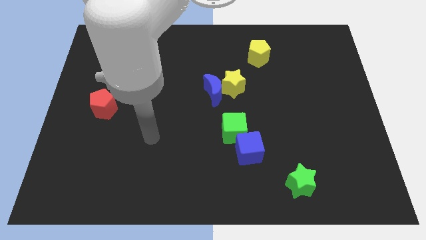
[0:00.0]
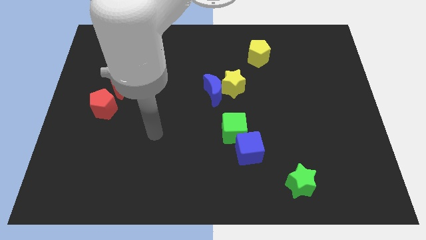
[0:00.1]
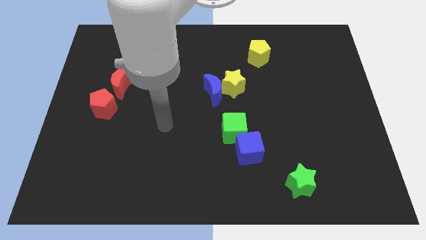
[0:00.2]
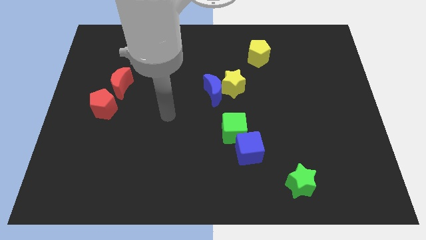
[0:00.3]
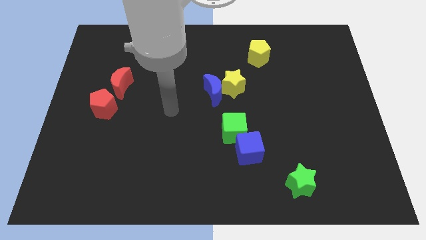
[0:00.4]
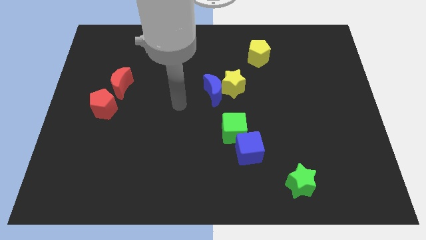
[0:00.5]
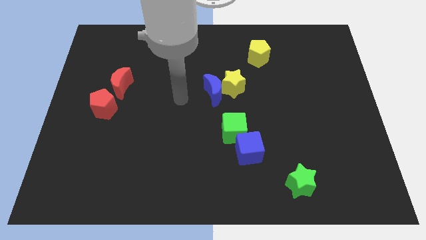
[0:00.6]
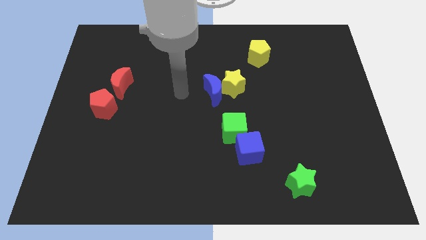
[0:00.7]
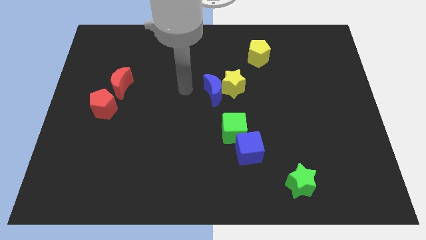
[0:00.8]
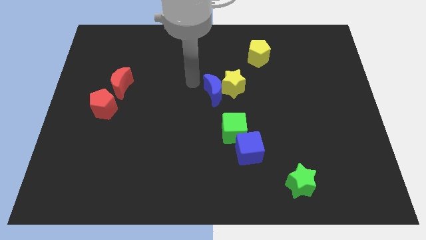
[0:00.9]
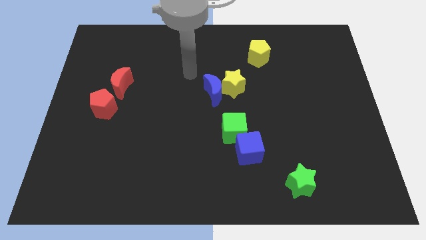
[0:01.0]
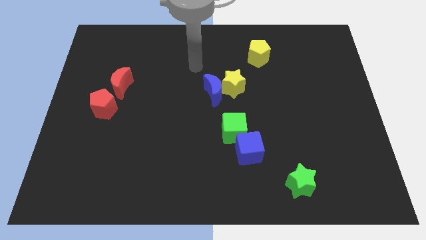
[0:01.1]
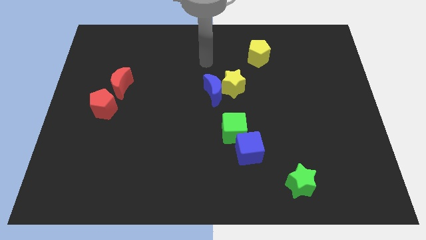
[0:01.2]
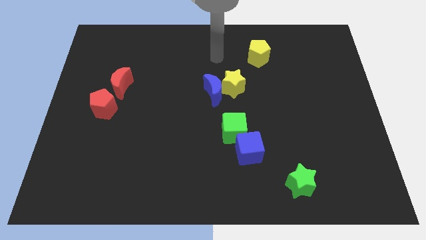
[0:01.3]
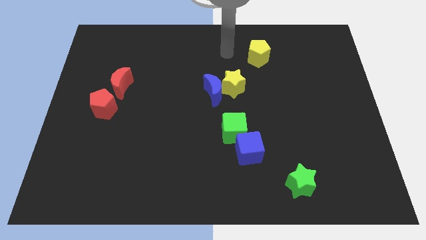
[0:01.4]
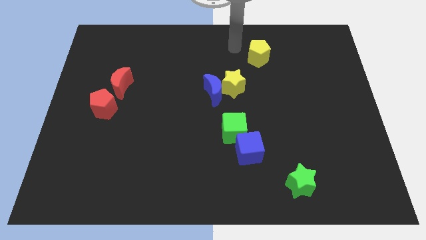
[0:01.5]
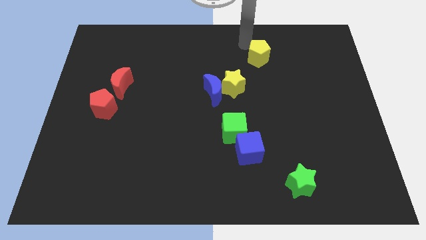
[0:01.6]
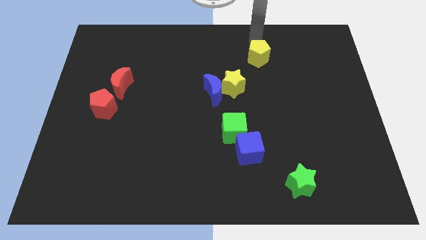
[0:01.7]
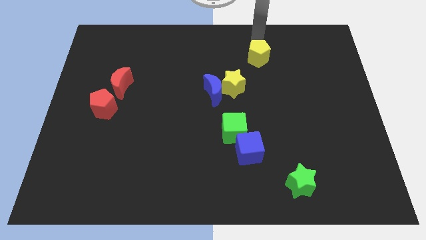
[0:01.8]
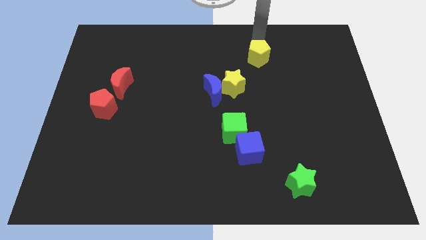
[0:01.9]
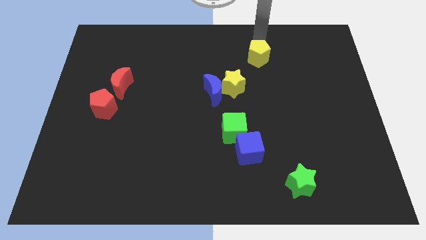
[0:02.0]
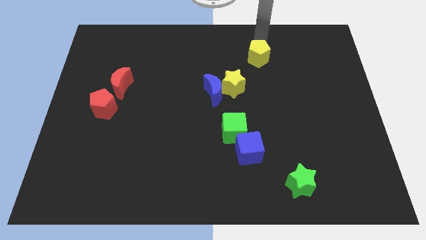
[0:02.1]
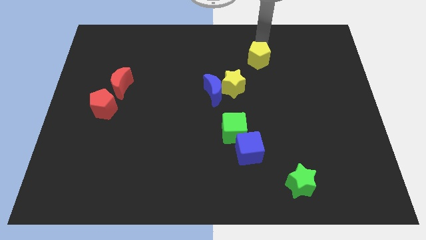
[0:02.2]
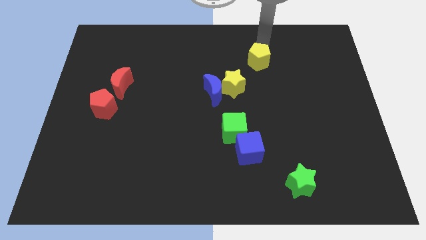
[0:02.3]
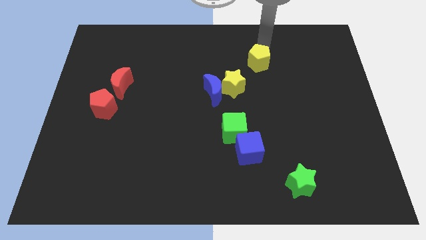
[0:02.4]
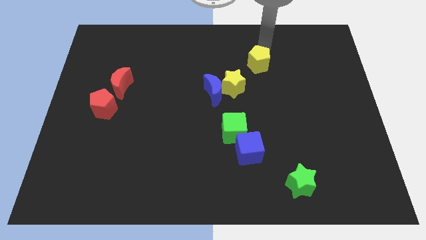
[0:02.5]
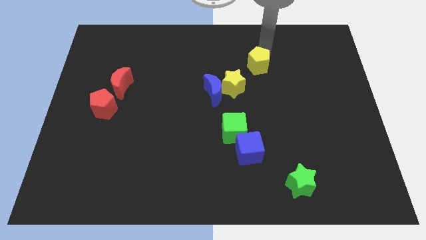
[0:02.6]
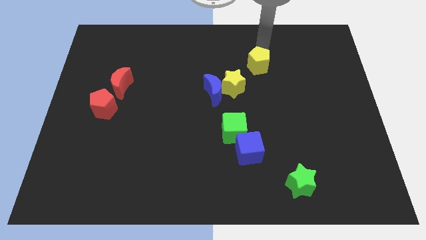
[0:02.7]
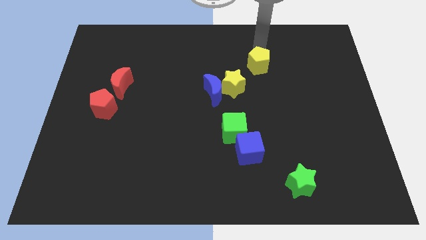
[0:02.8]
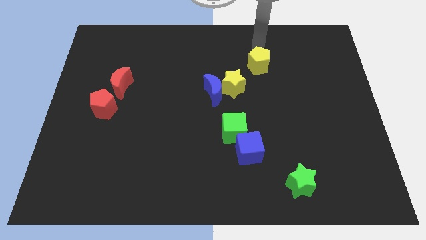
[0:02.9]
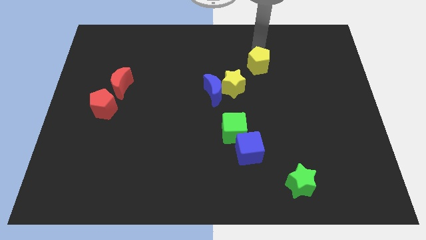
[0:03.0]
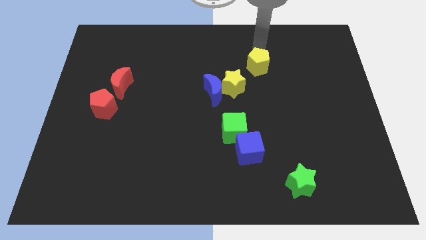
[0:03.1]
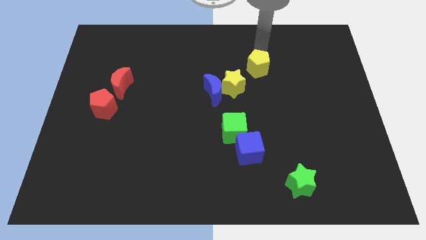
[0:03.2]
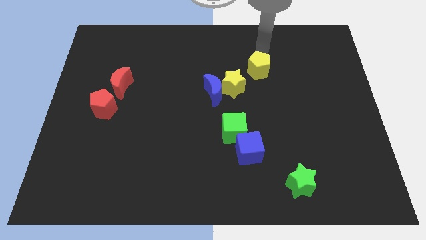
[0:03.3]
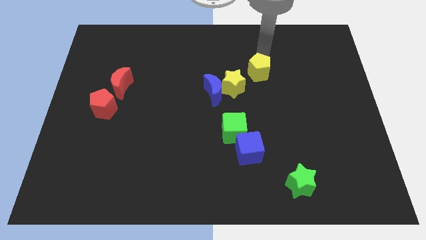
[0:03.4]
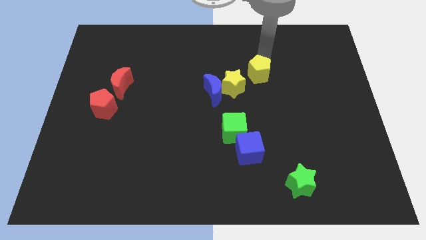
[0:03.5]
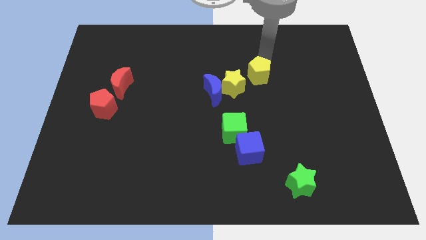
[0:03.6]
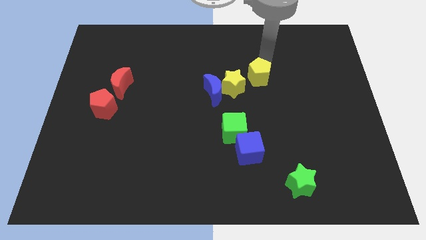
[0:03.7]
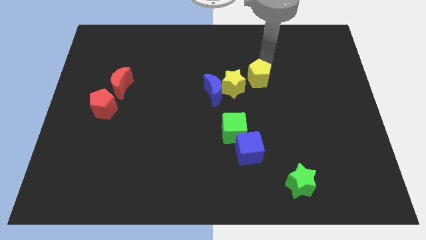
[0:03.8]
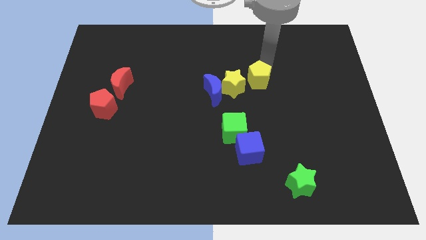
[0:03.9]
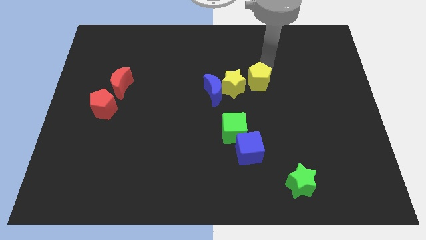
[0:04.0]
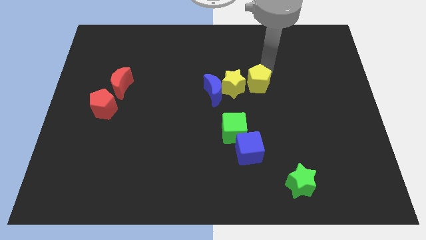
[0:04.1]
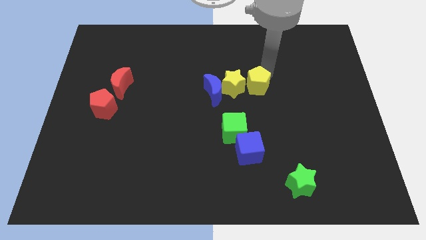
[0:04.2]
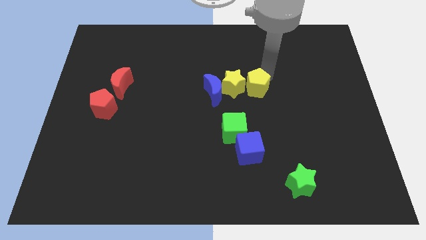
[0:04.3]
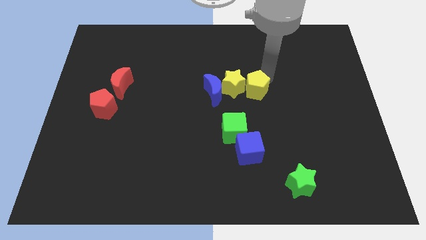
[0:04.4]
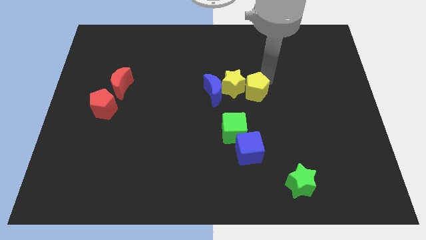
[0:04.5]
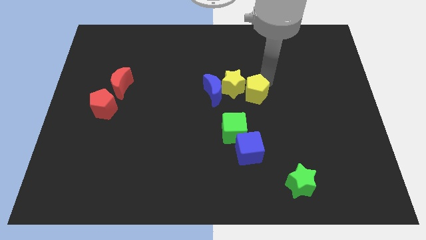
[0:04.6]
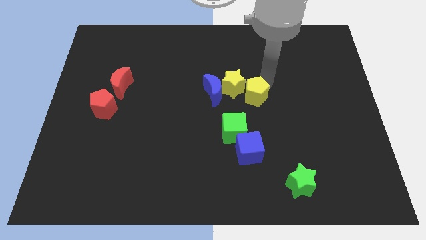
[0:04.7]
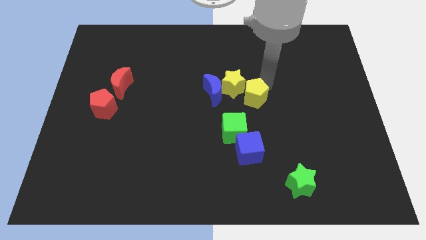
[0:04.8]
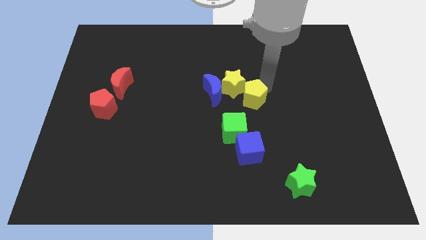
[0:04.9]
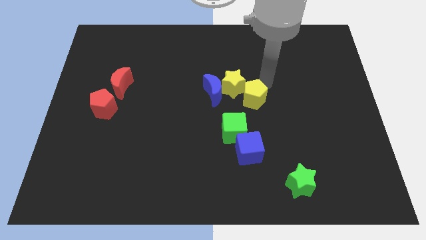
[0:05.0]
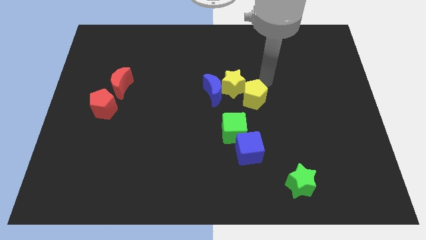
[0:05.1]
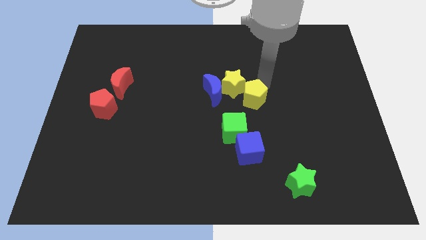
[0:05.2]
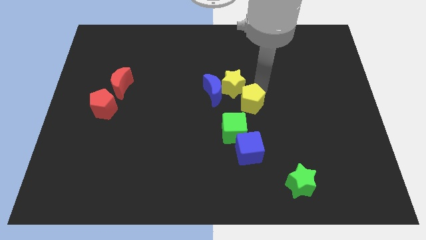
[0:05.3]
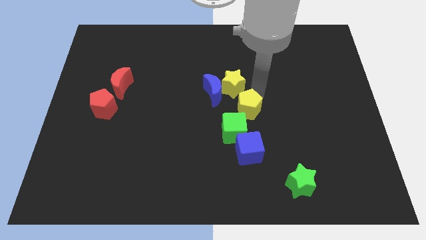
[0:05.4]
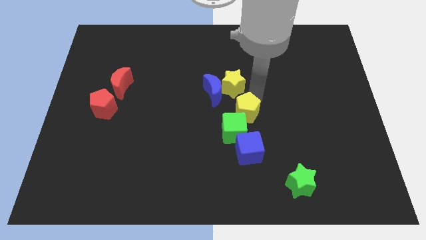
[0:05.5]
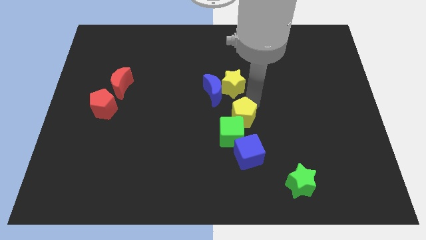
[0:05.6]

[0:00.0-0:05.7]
slide the yellow pentagon next to the green cube

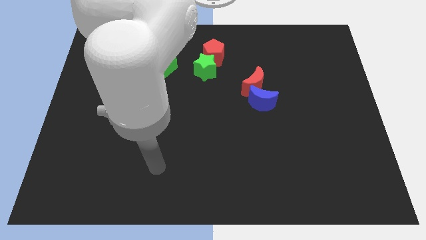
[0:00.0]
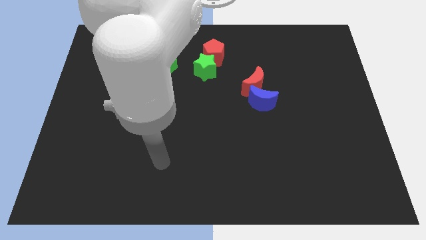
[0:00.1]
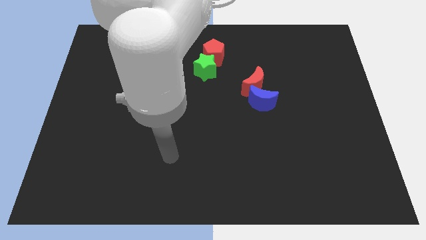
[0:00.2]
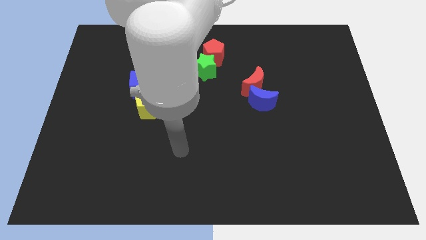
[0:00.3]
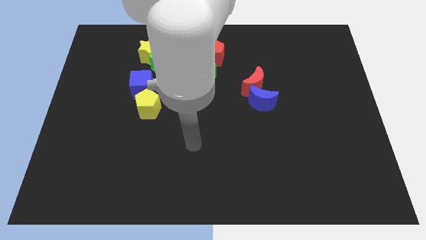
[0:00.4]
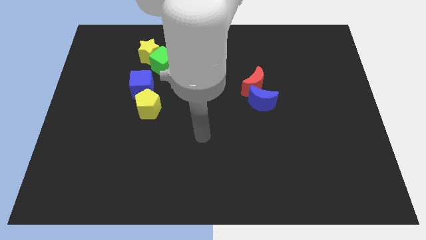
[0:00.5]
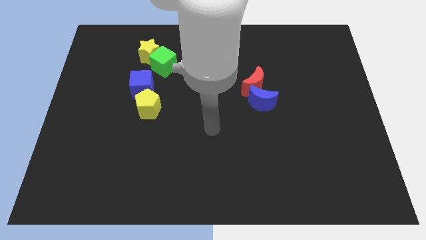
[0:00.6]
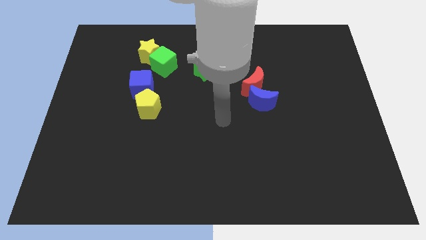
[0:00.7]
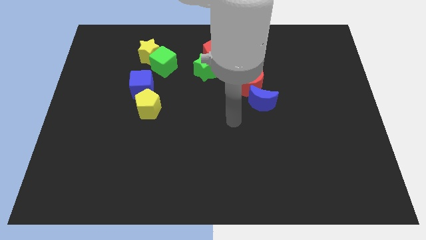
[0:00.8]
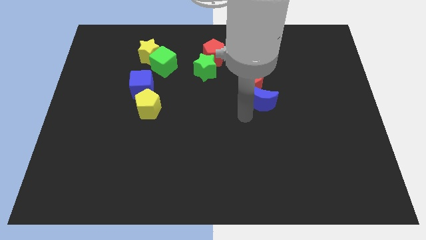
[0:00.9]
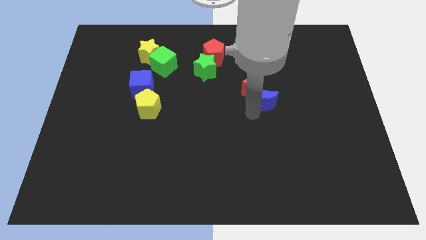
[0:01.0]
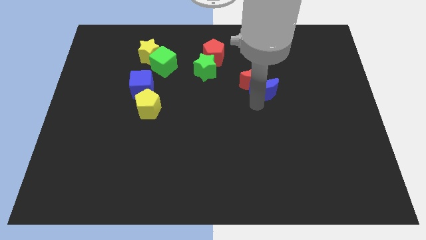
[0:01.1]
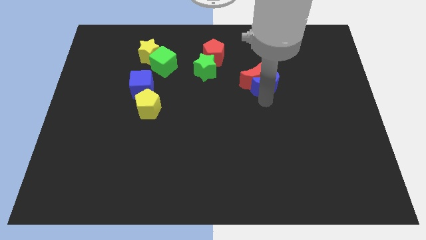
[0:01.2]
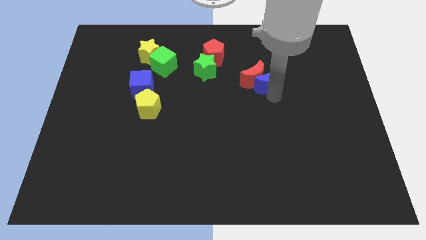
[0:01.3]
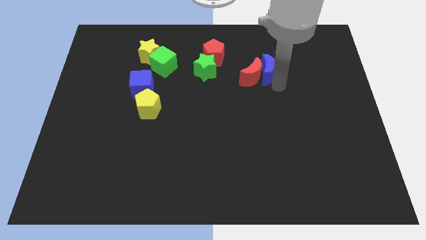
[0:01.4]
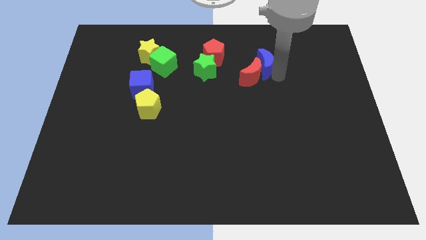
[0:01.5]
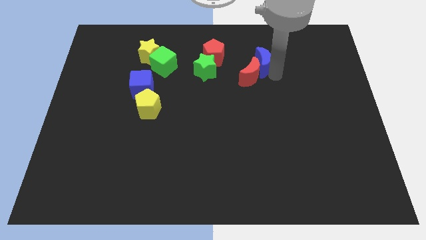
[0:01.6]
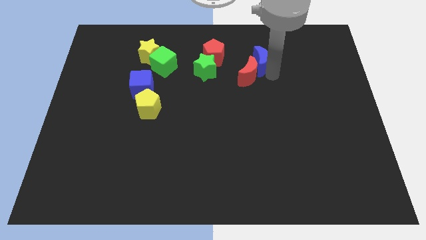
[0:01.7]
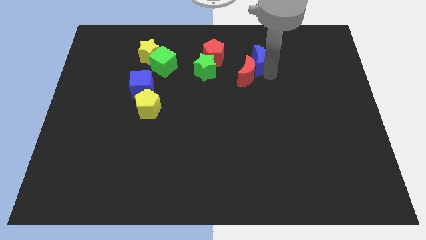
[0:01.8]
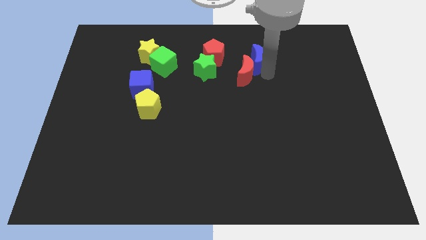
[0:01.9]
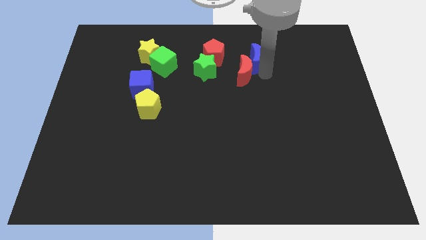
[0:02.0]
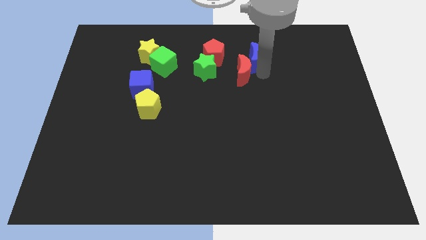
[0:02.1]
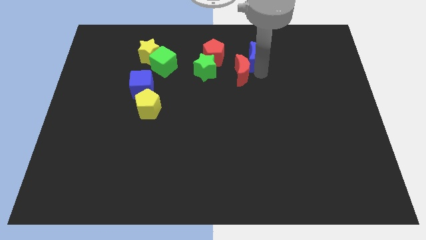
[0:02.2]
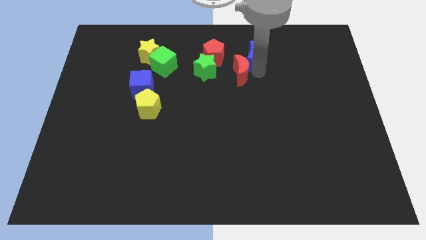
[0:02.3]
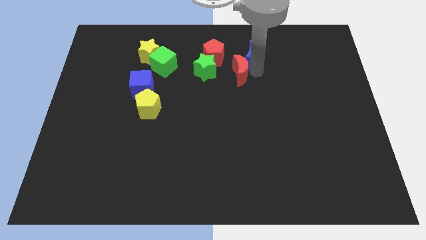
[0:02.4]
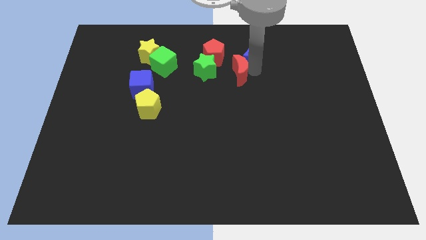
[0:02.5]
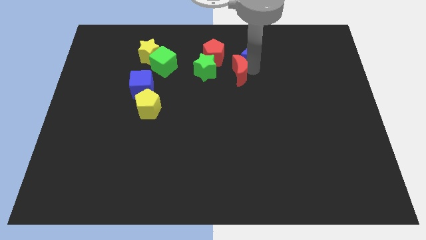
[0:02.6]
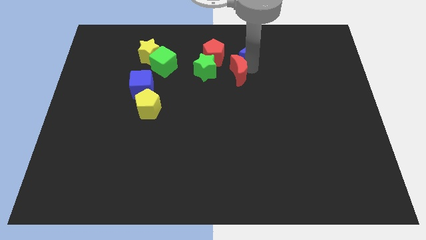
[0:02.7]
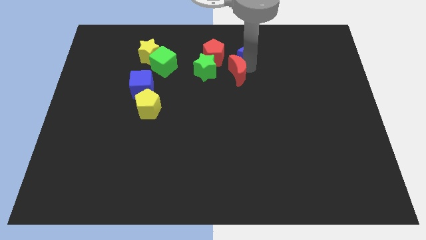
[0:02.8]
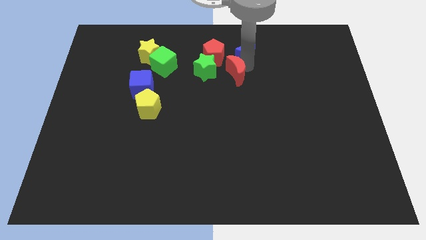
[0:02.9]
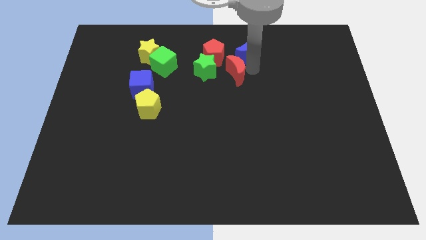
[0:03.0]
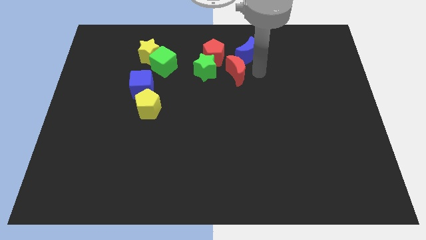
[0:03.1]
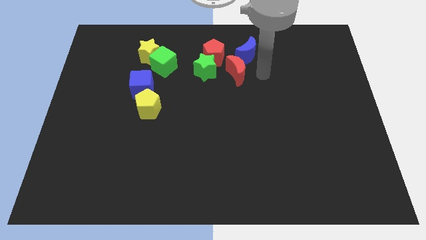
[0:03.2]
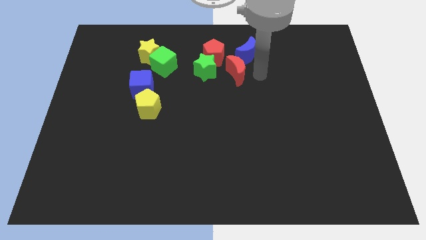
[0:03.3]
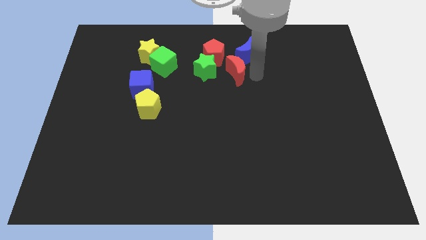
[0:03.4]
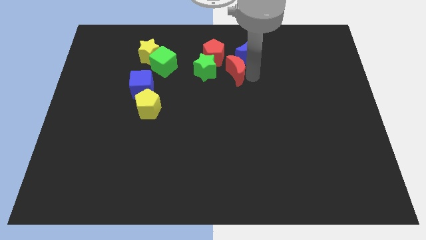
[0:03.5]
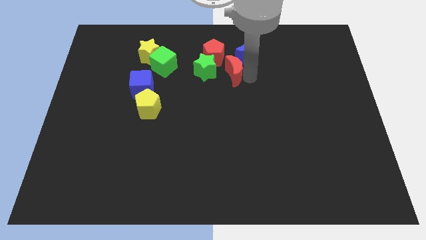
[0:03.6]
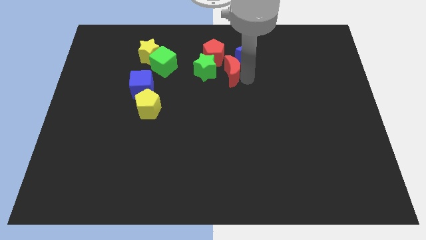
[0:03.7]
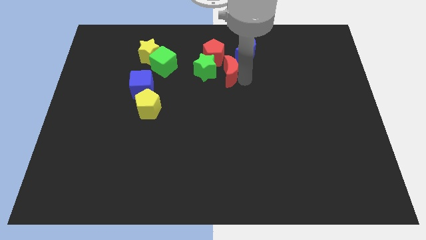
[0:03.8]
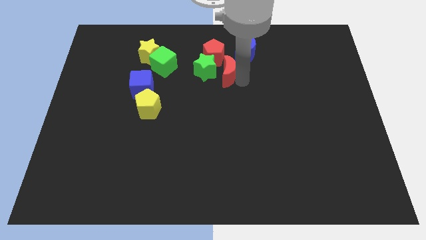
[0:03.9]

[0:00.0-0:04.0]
put the red moon next to the green star
